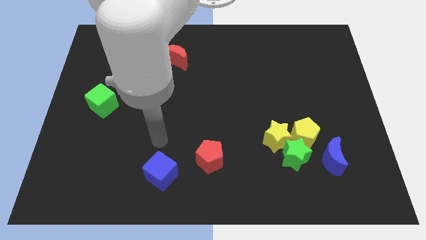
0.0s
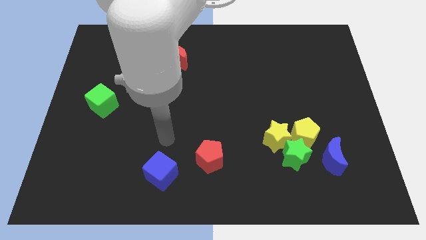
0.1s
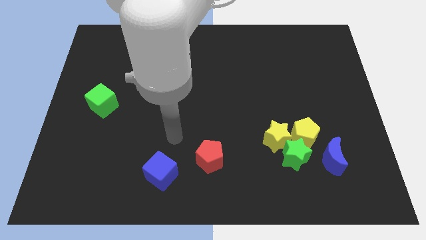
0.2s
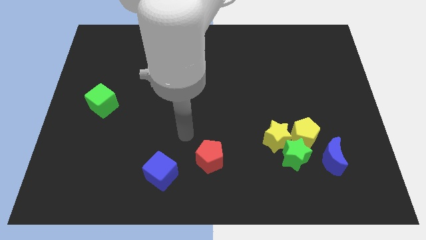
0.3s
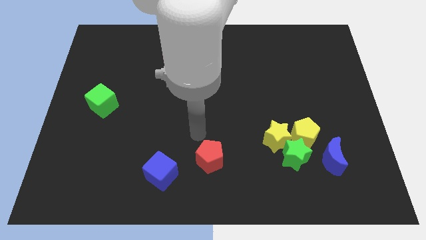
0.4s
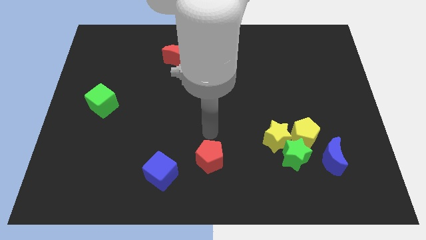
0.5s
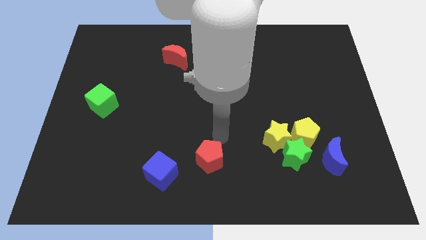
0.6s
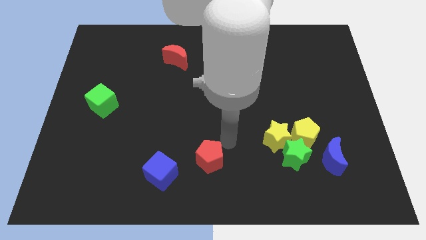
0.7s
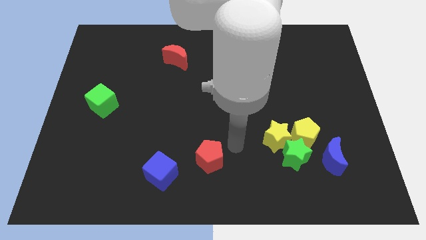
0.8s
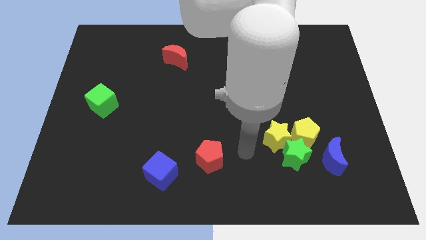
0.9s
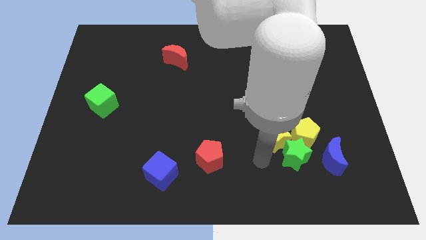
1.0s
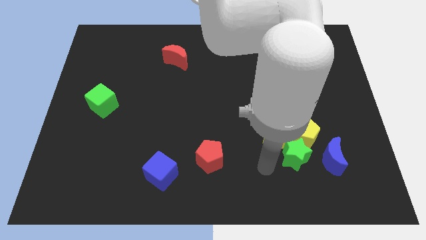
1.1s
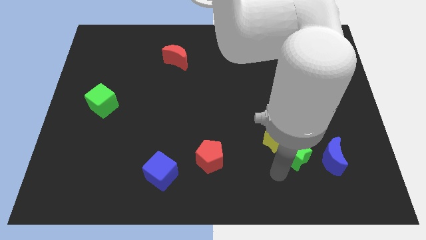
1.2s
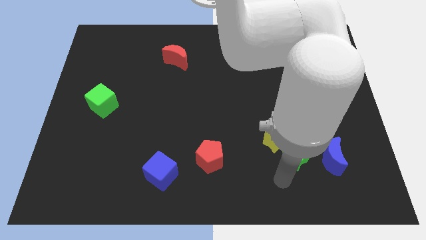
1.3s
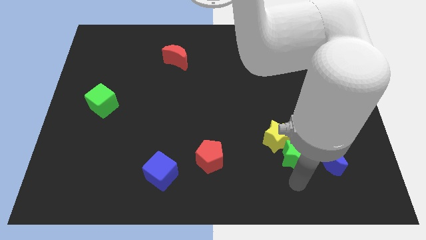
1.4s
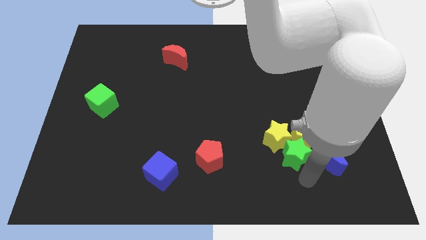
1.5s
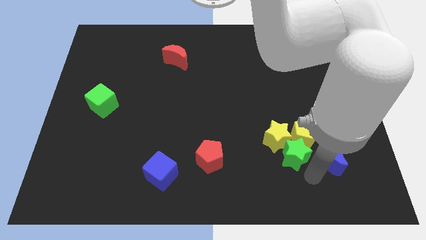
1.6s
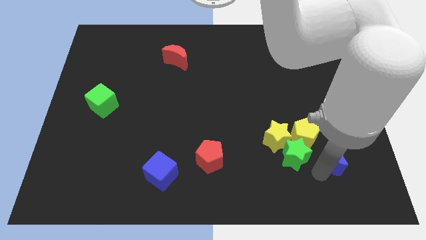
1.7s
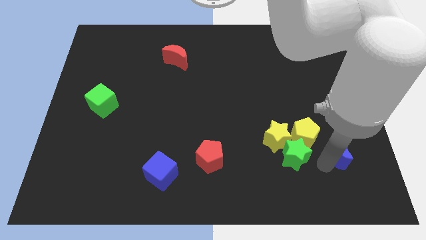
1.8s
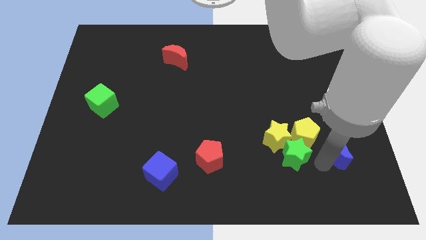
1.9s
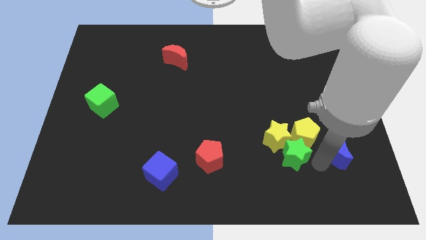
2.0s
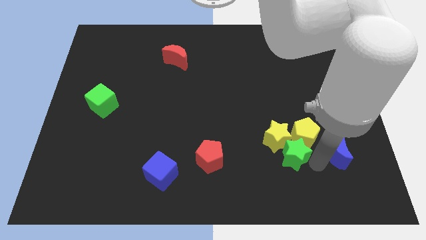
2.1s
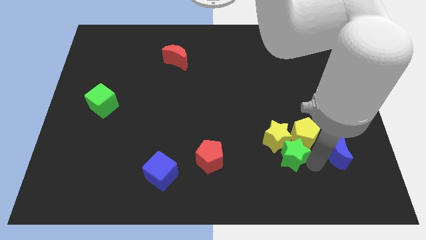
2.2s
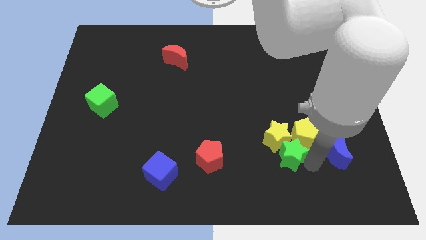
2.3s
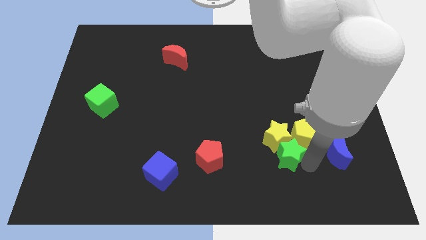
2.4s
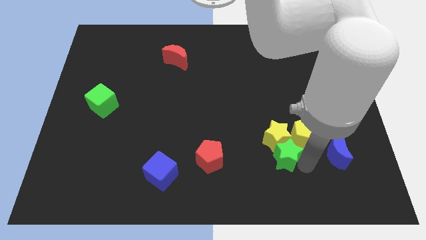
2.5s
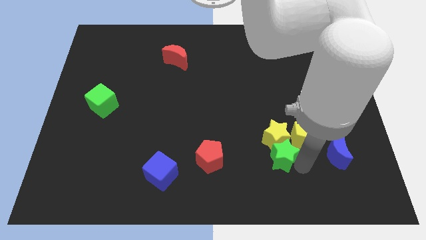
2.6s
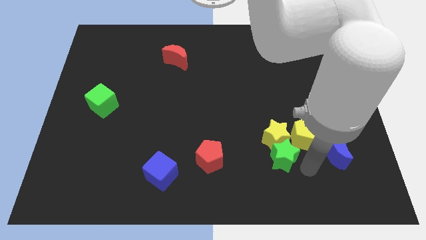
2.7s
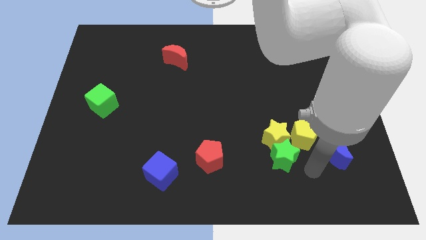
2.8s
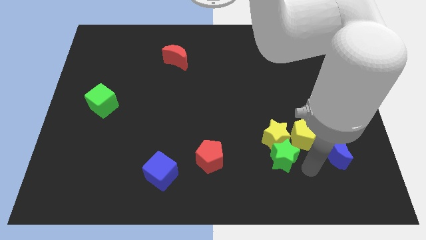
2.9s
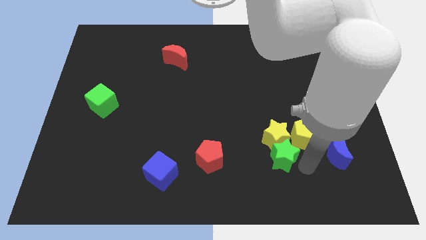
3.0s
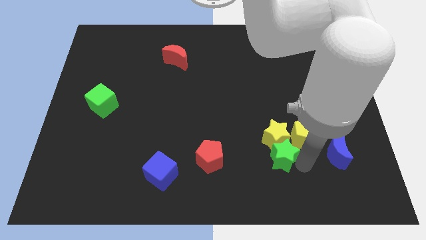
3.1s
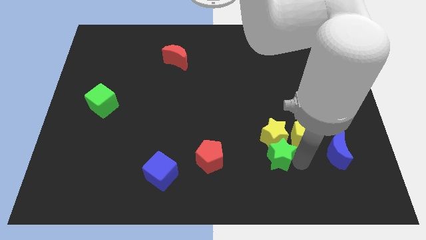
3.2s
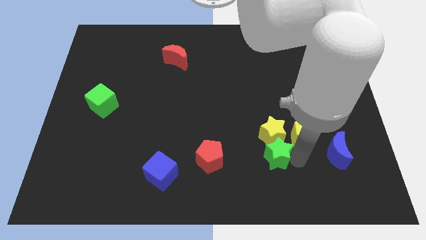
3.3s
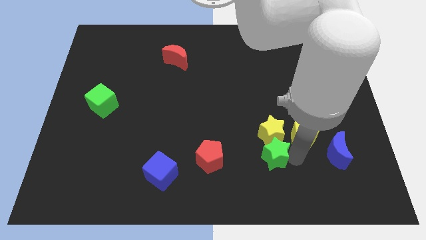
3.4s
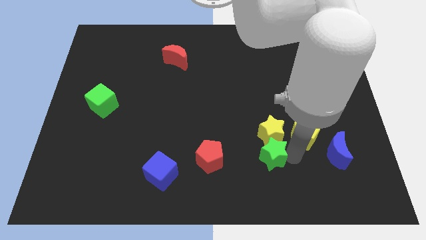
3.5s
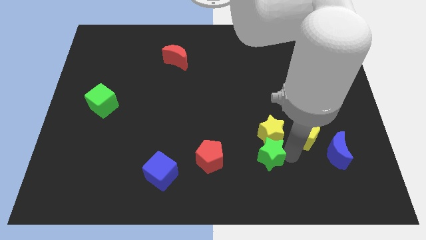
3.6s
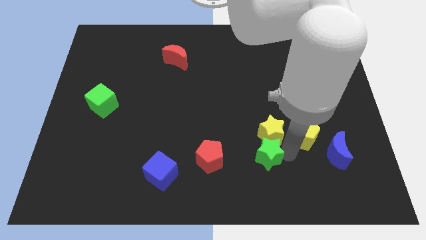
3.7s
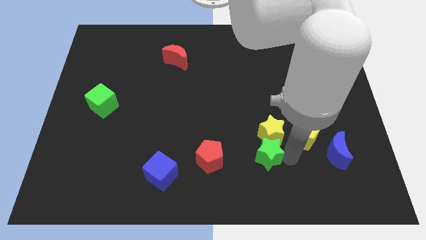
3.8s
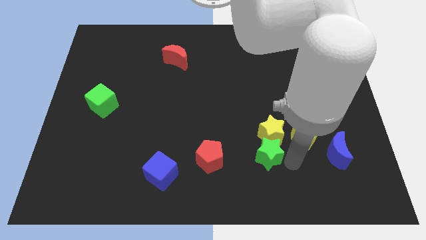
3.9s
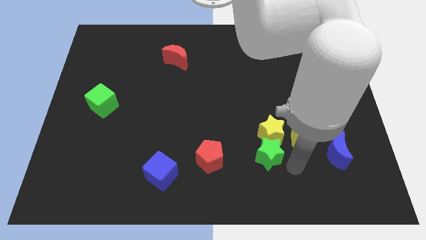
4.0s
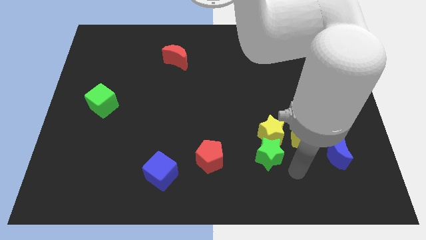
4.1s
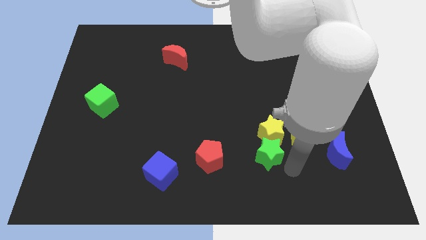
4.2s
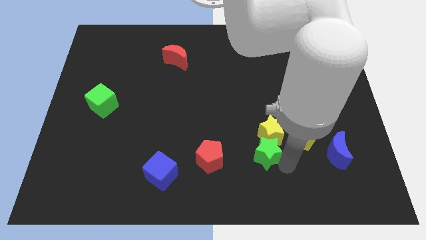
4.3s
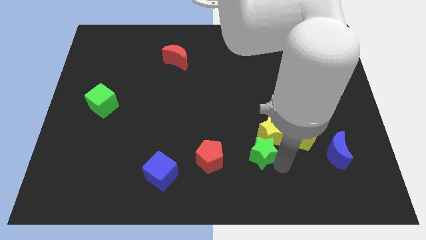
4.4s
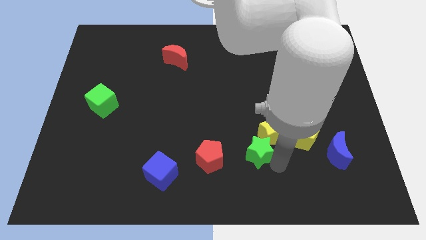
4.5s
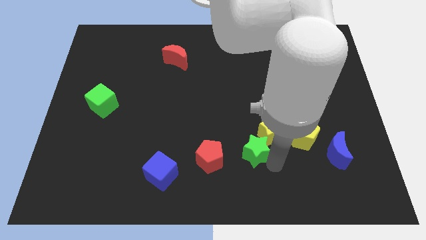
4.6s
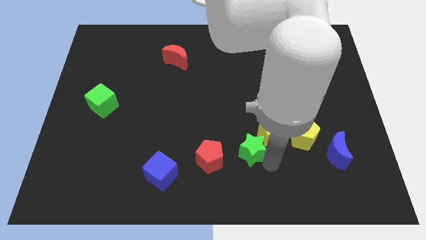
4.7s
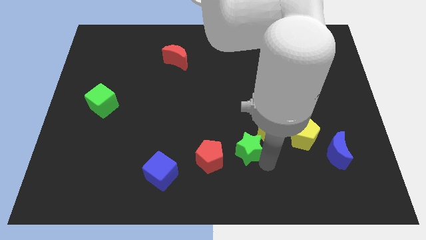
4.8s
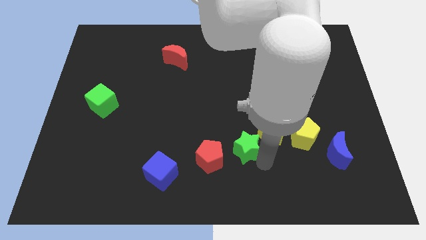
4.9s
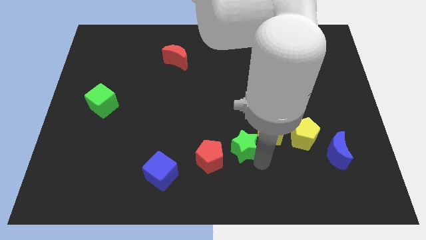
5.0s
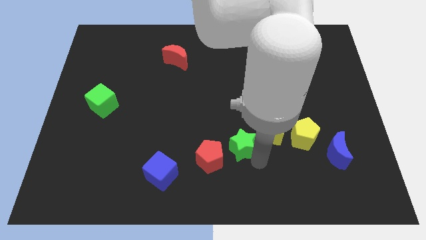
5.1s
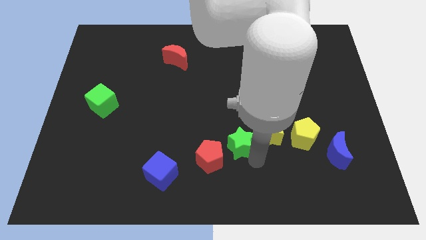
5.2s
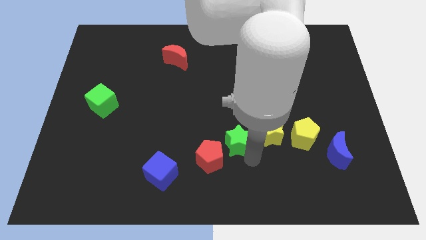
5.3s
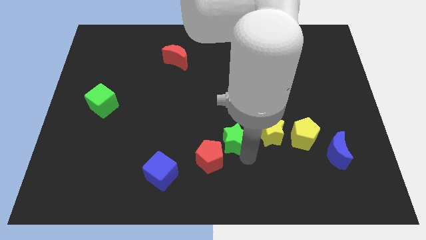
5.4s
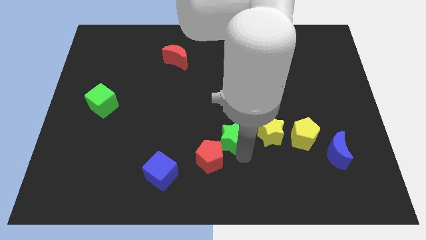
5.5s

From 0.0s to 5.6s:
push the green star to the center of the board

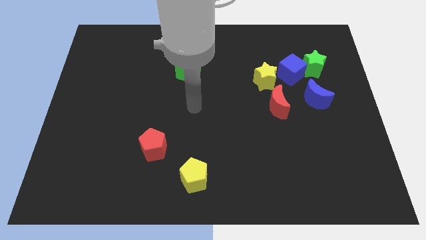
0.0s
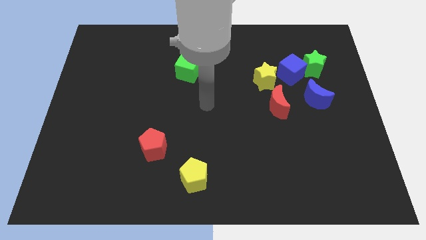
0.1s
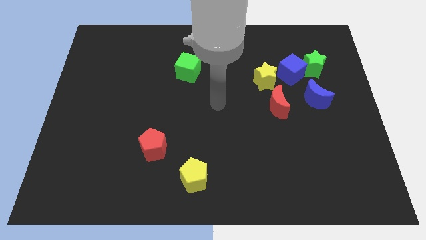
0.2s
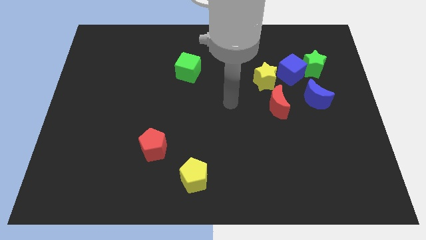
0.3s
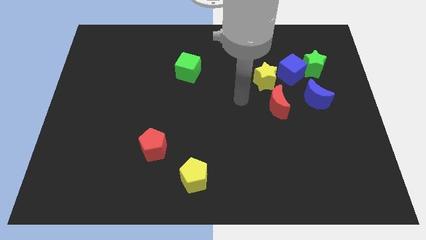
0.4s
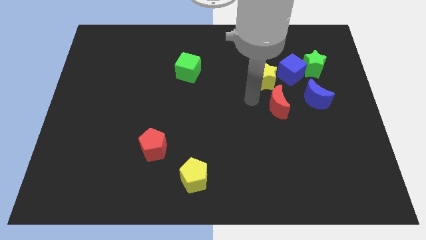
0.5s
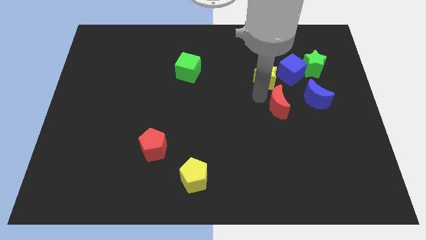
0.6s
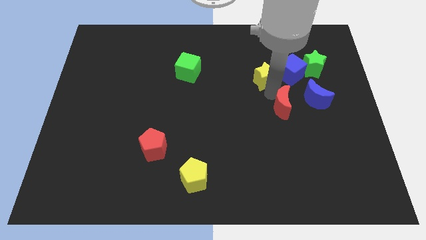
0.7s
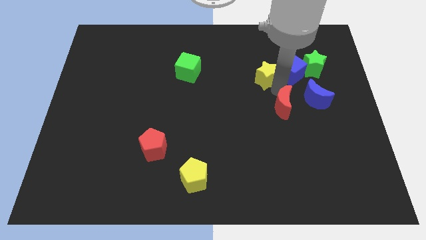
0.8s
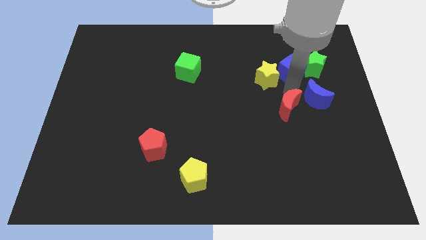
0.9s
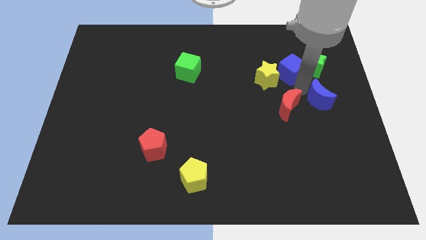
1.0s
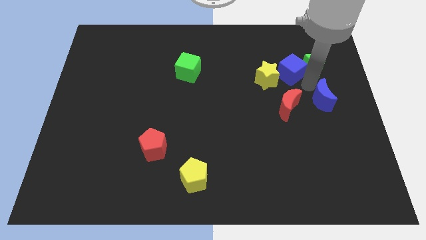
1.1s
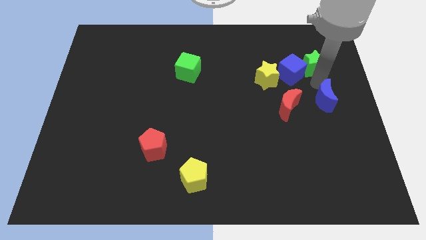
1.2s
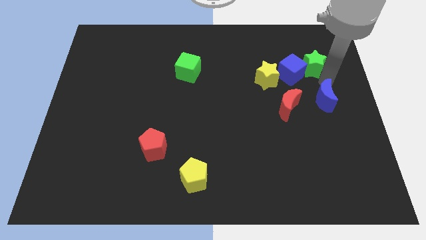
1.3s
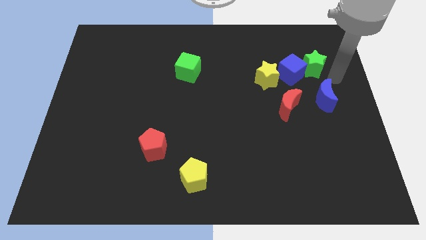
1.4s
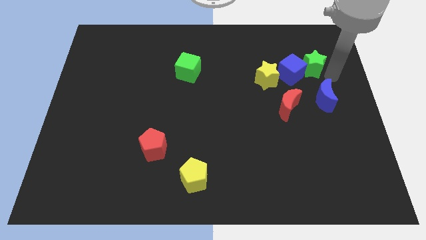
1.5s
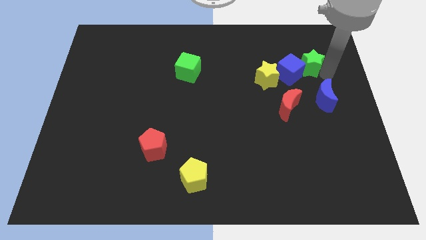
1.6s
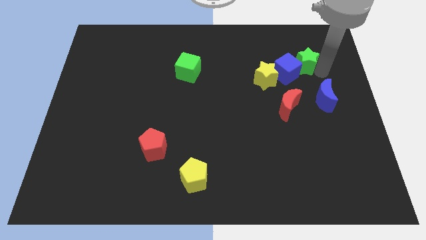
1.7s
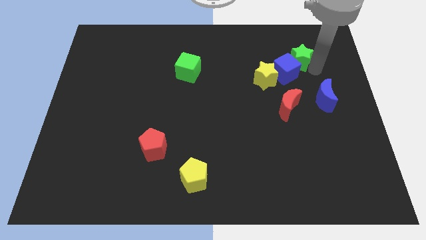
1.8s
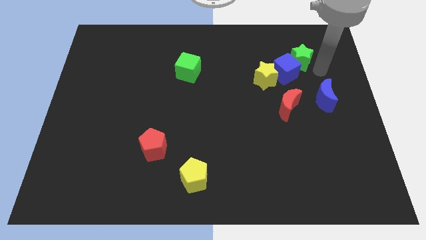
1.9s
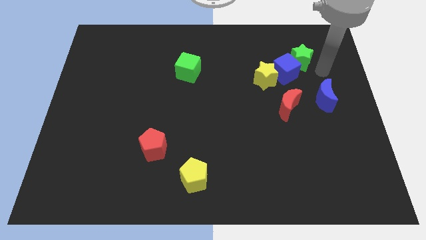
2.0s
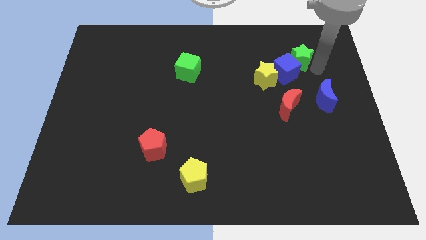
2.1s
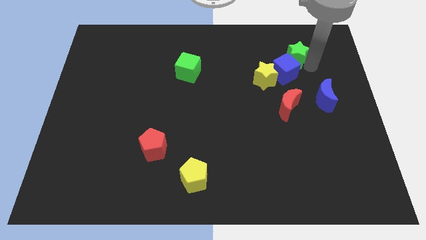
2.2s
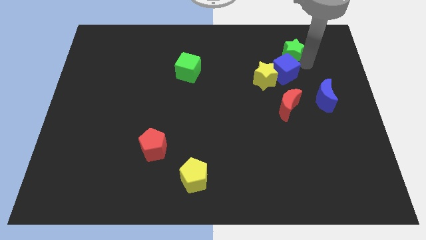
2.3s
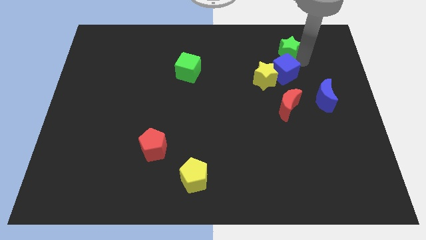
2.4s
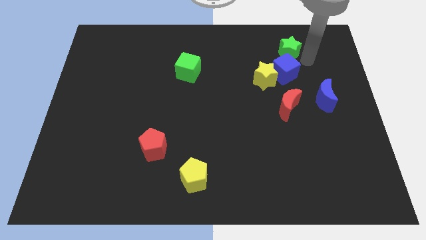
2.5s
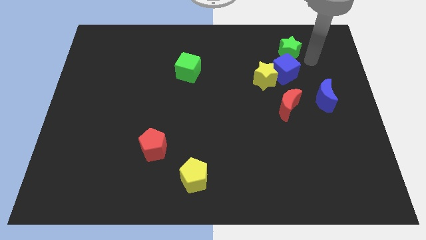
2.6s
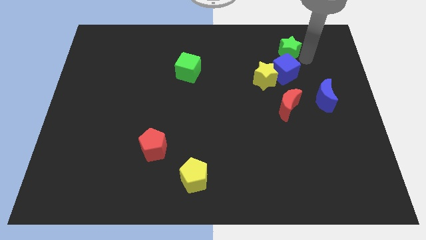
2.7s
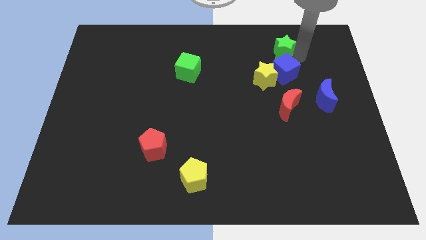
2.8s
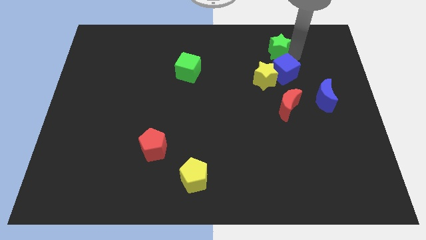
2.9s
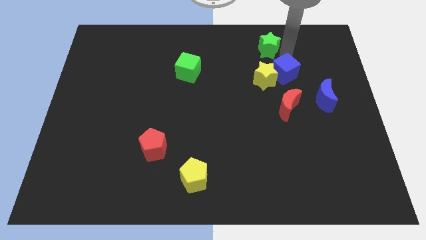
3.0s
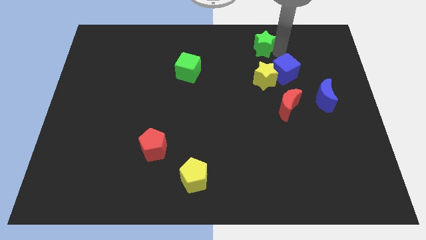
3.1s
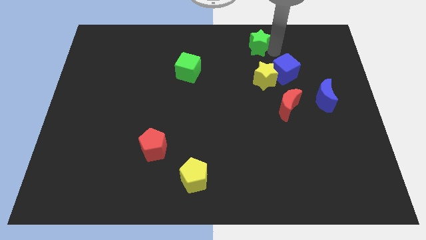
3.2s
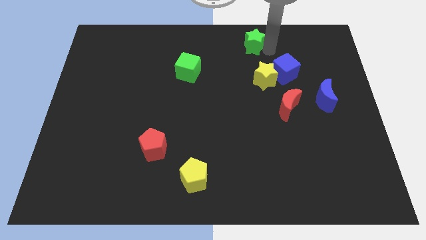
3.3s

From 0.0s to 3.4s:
push the green star to the top
